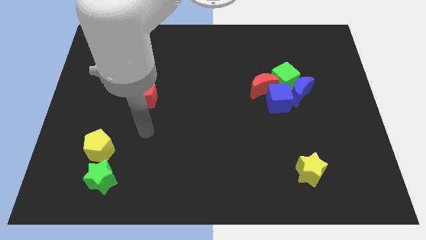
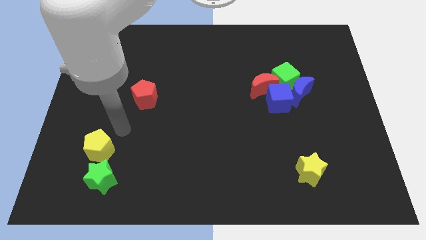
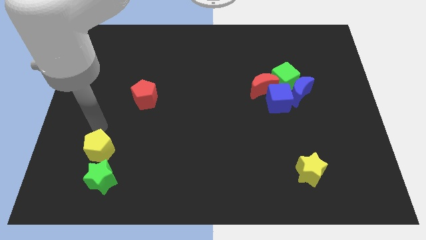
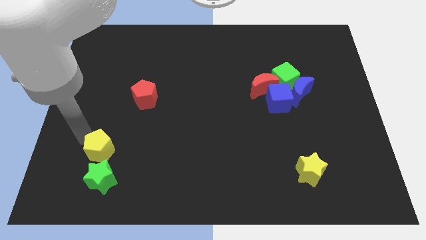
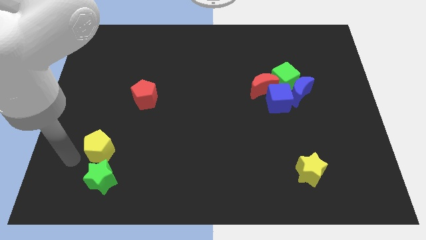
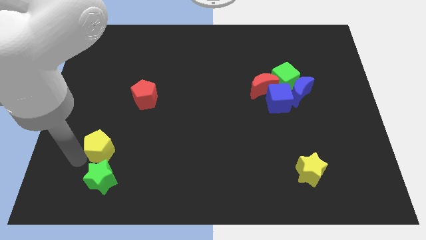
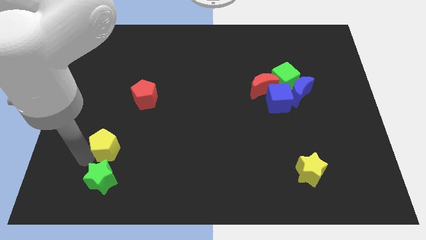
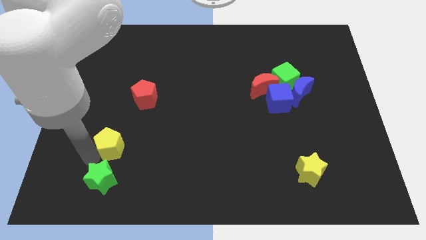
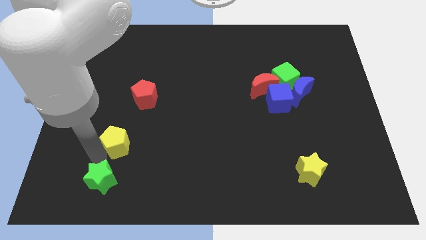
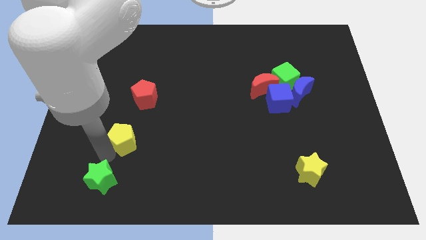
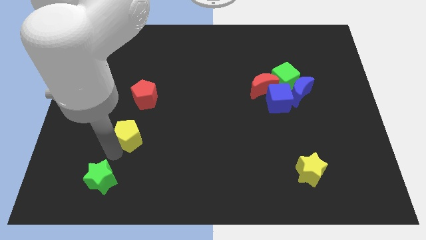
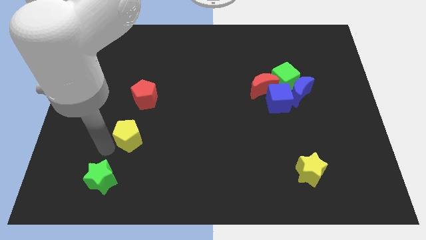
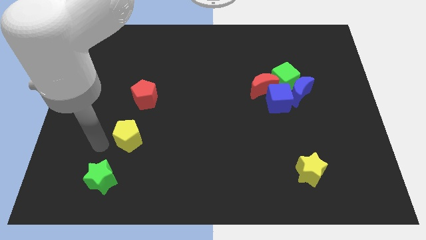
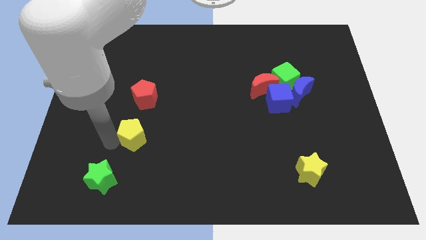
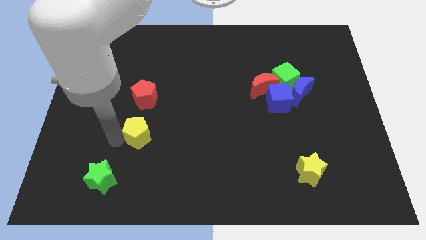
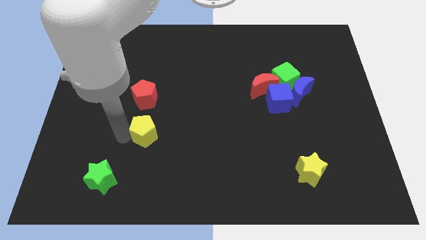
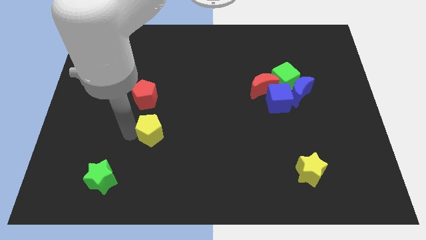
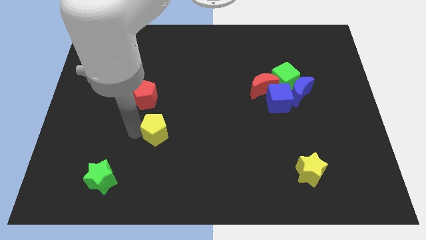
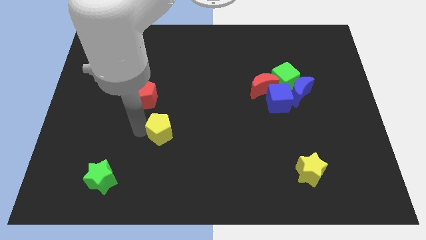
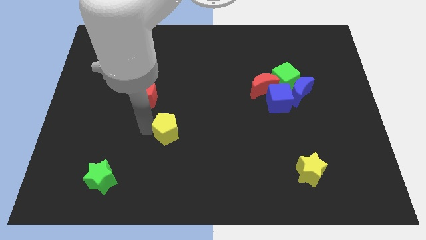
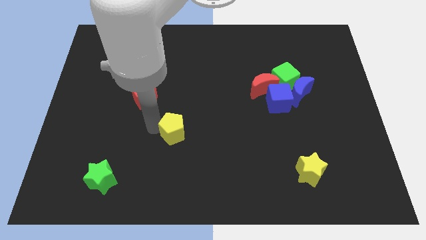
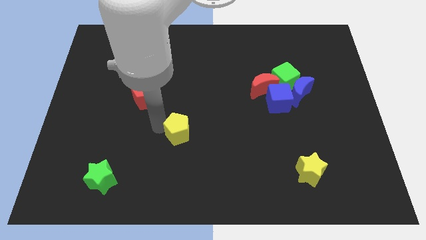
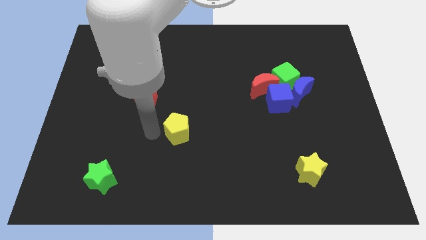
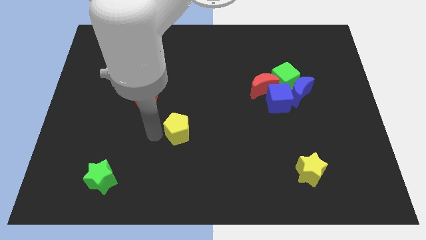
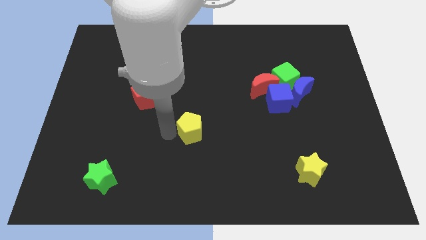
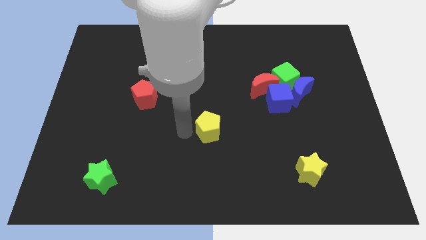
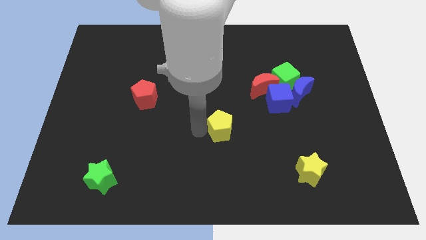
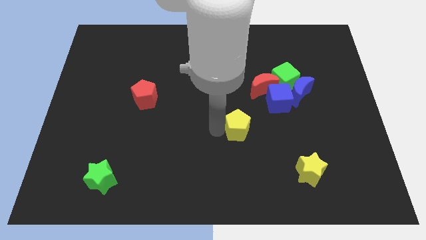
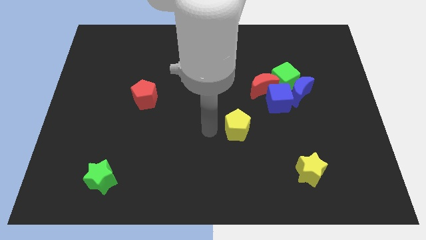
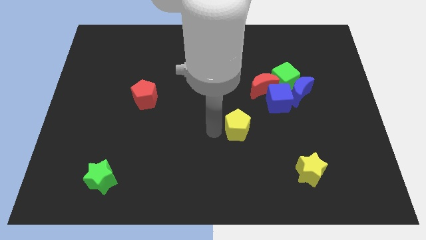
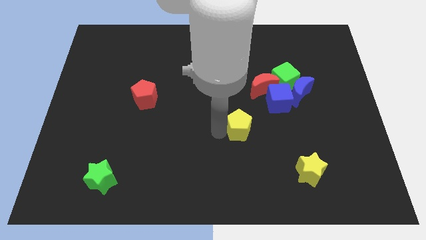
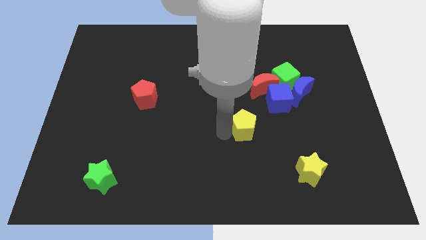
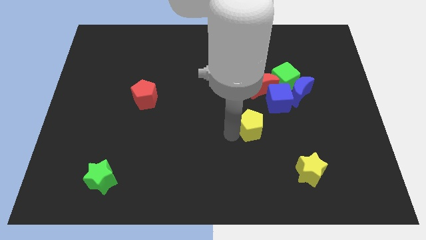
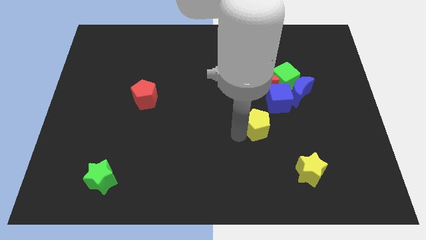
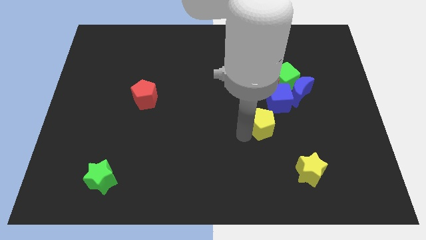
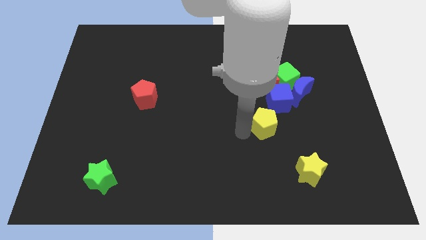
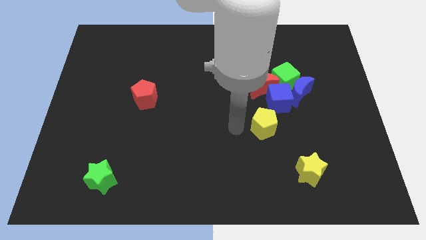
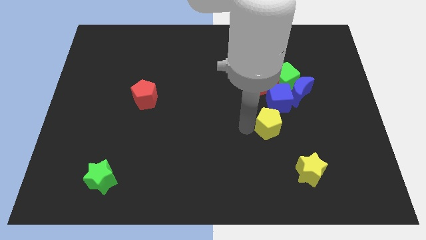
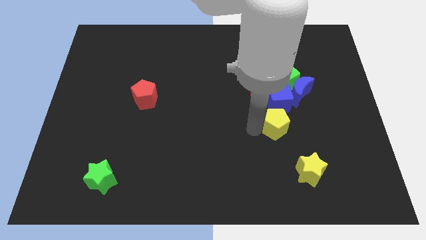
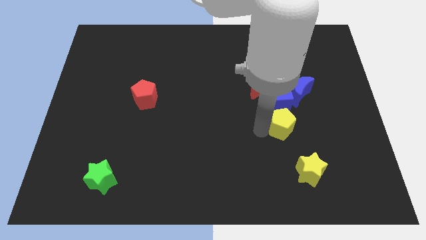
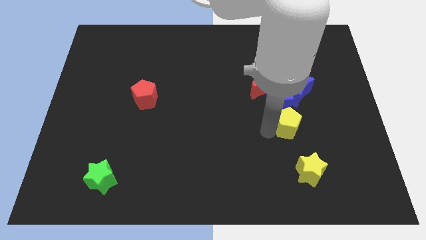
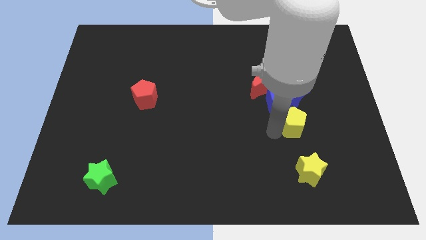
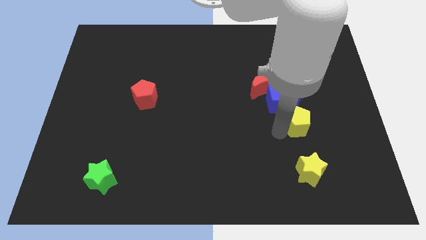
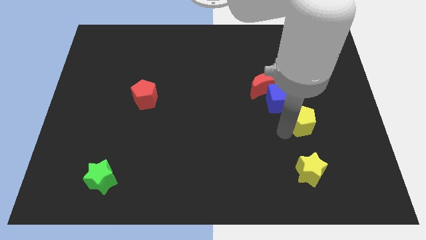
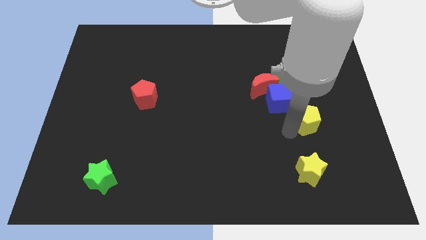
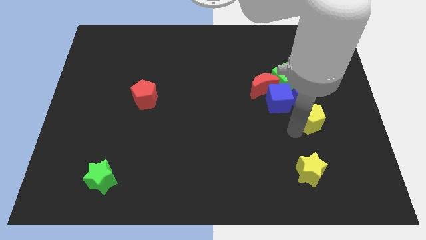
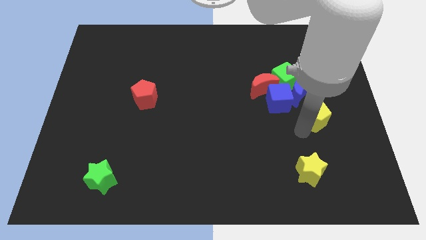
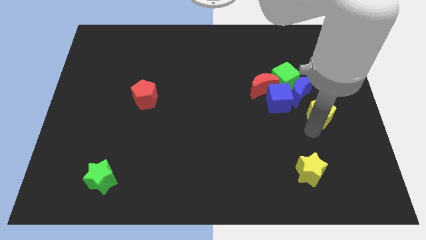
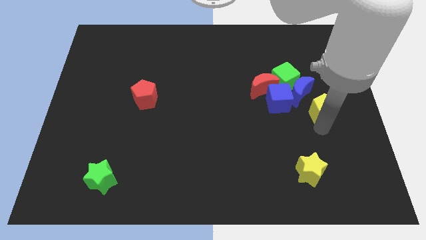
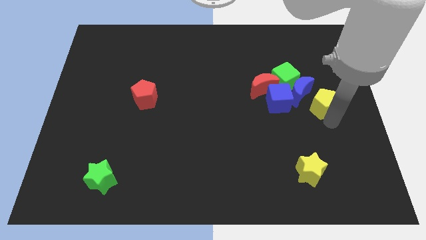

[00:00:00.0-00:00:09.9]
put the yellow pentagon to the blue moon

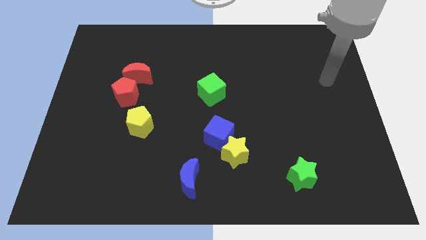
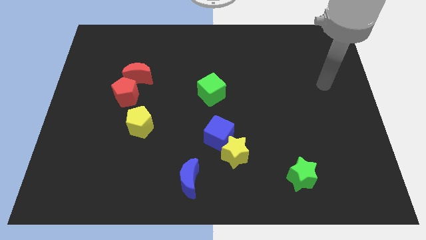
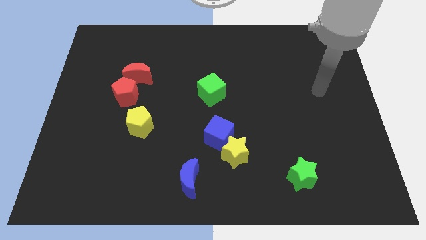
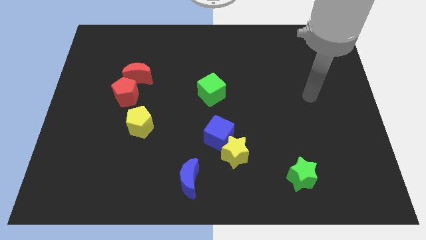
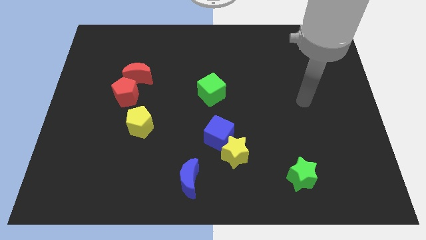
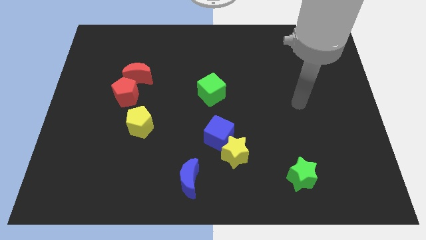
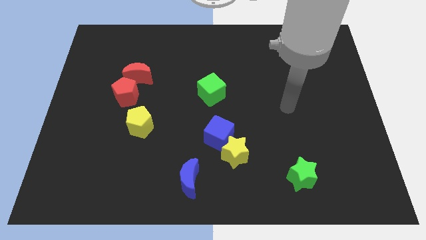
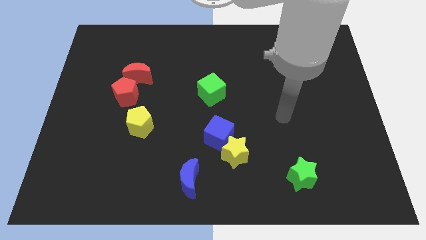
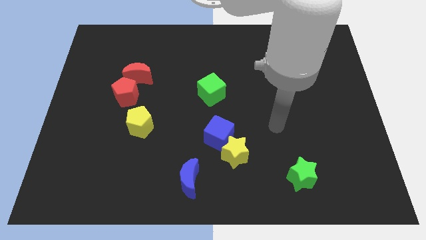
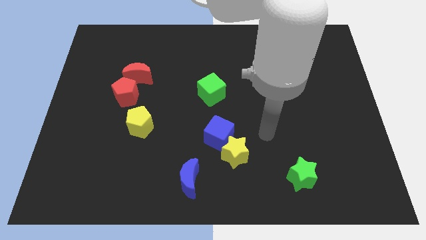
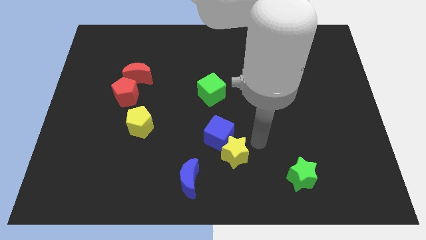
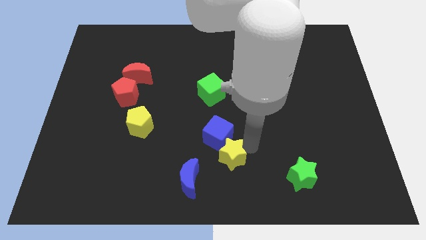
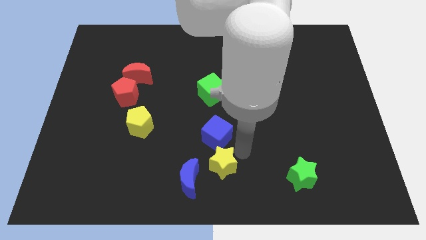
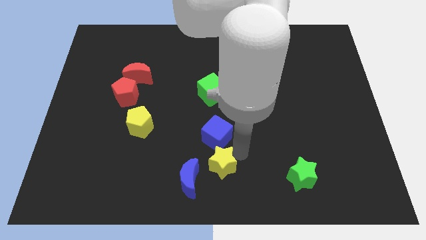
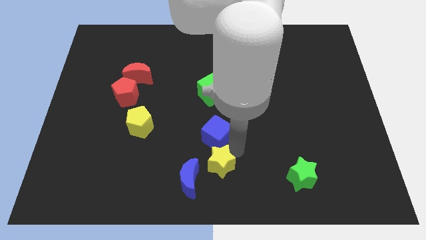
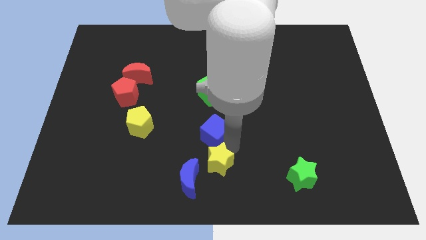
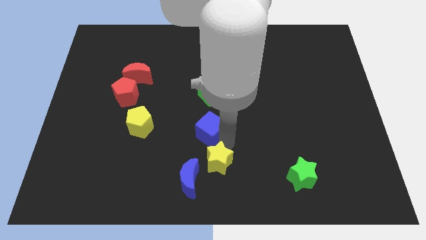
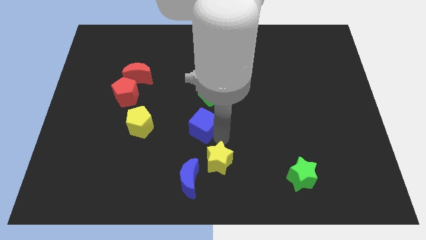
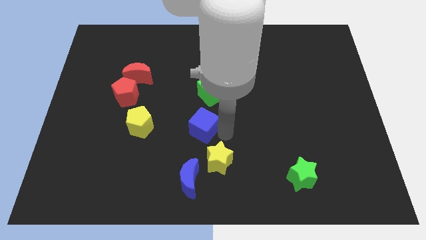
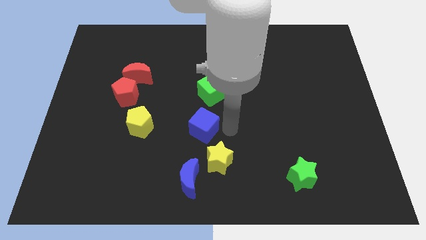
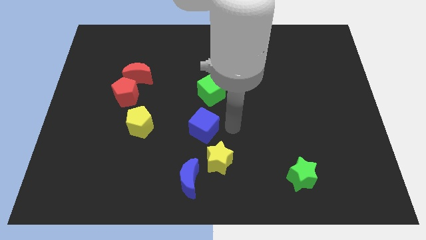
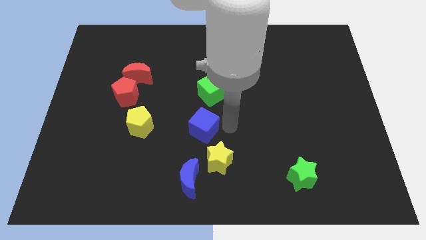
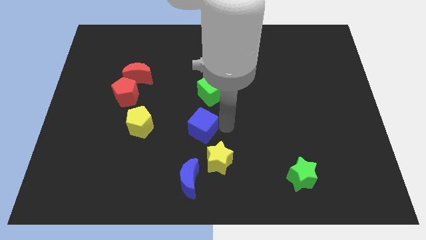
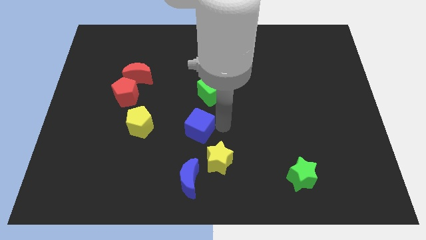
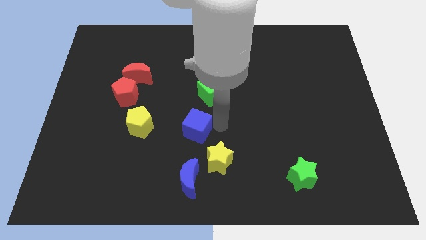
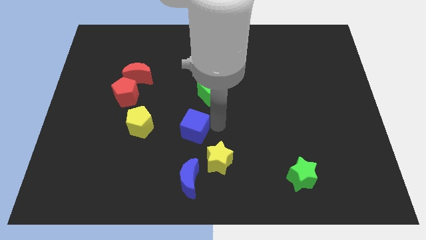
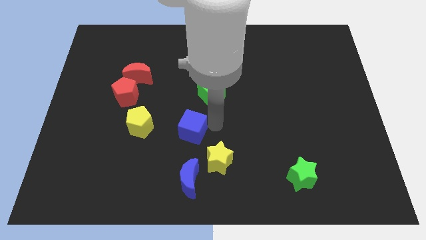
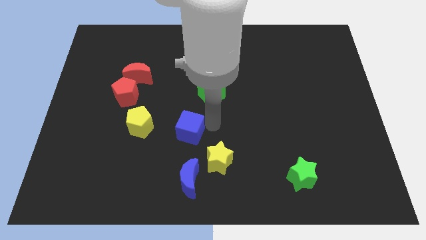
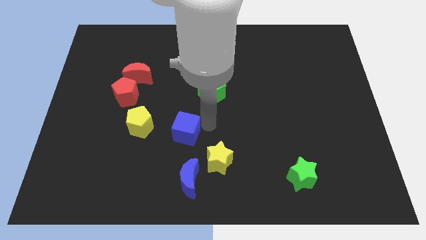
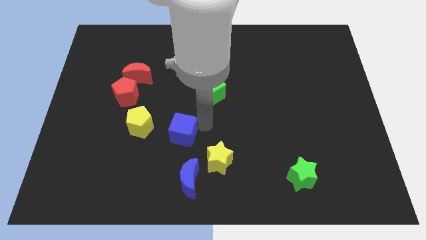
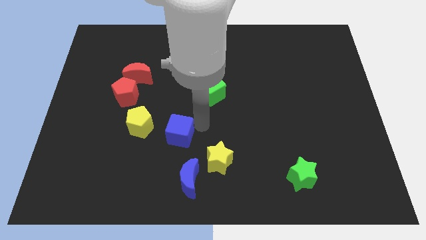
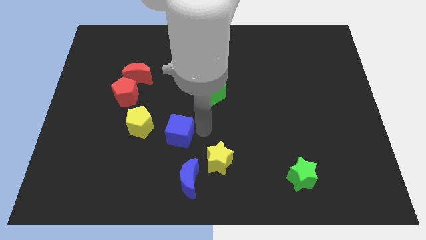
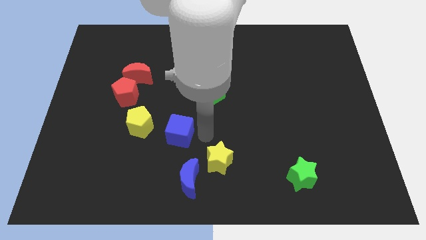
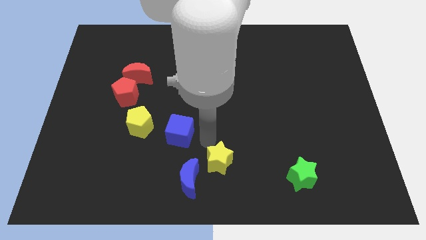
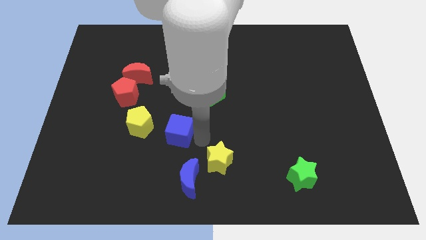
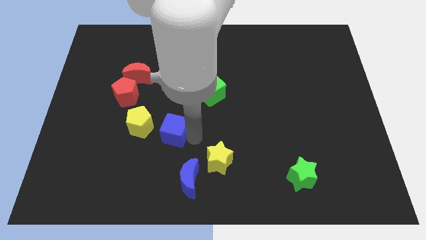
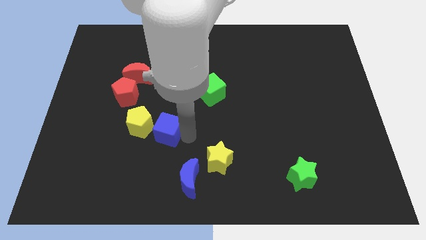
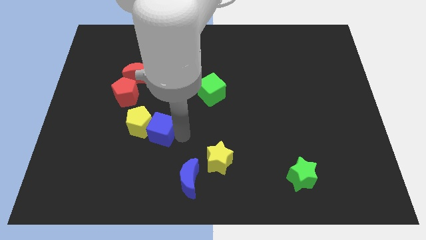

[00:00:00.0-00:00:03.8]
slide the blue cube to the yellow pentagon
